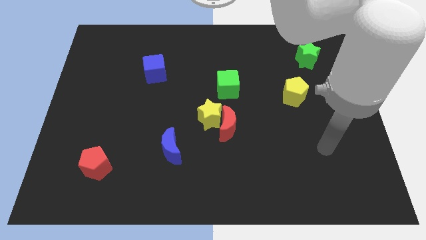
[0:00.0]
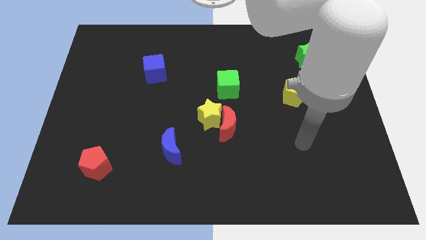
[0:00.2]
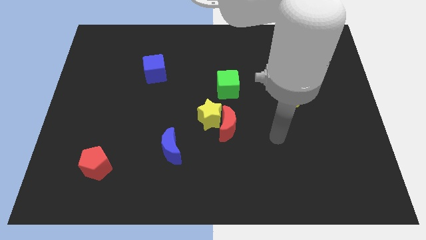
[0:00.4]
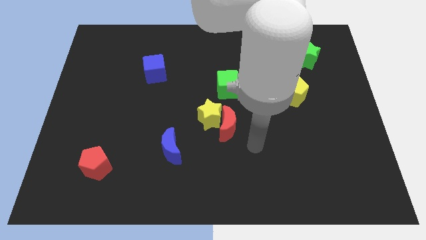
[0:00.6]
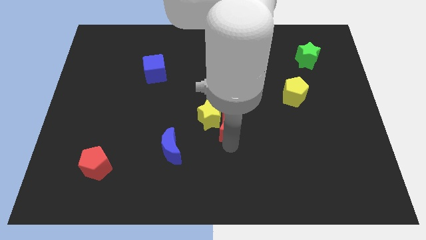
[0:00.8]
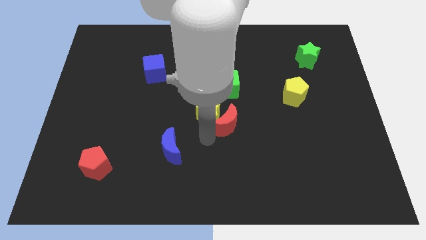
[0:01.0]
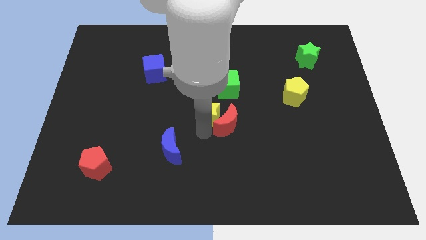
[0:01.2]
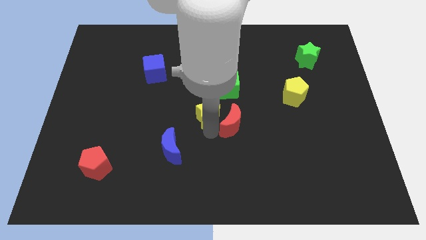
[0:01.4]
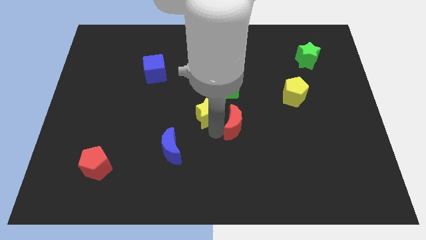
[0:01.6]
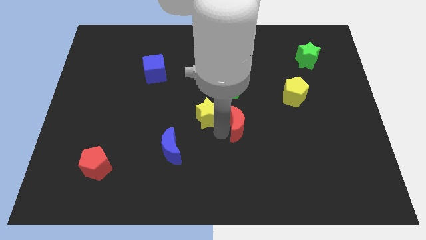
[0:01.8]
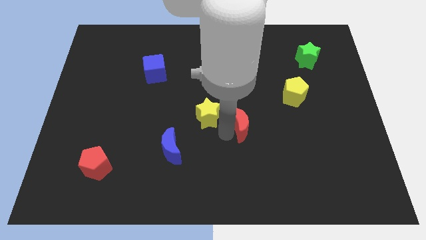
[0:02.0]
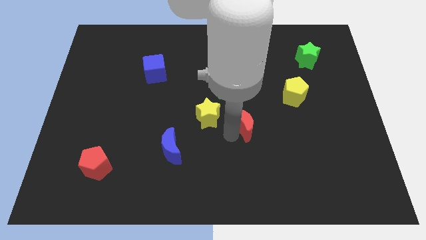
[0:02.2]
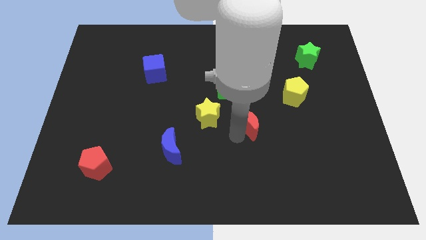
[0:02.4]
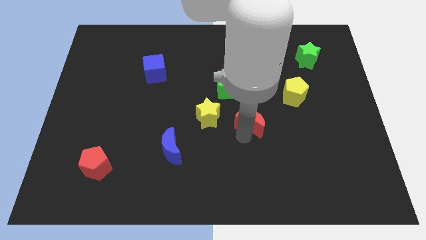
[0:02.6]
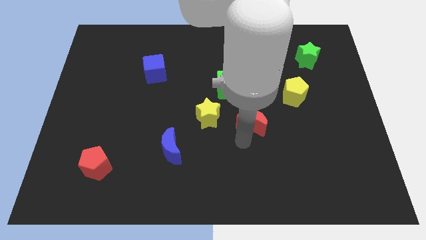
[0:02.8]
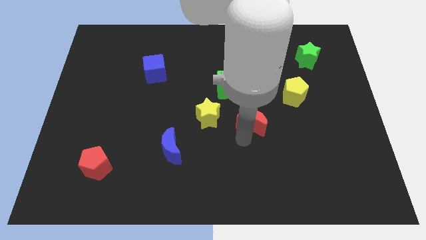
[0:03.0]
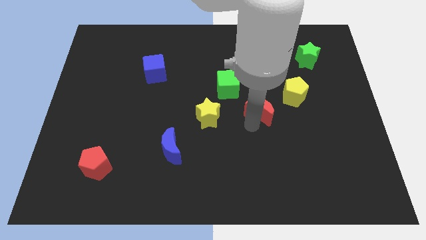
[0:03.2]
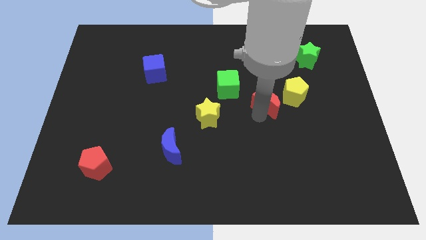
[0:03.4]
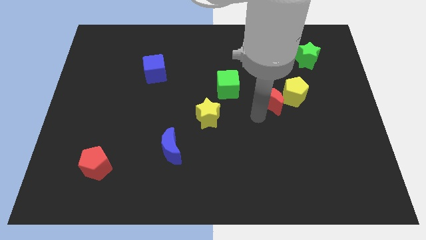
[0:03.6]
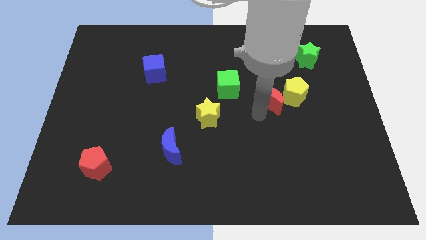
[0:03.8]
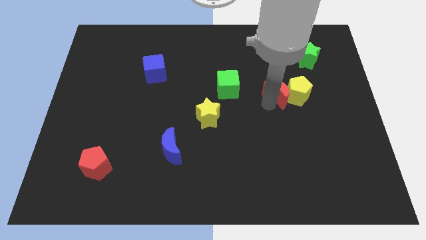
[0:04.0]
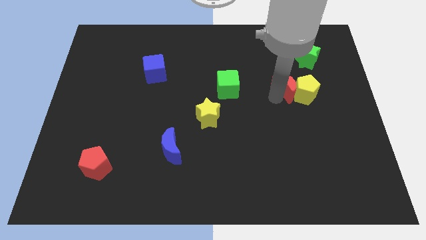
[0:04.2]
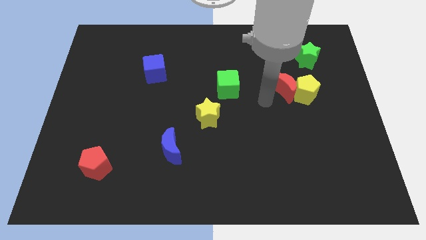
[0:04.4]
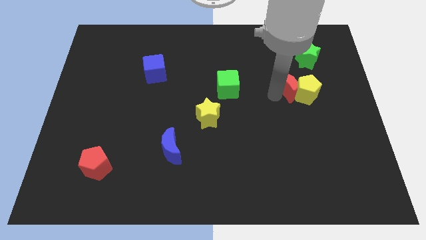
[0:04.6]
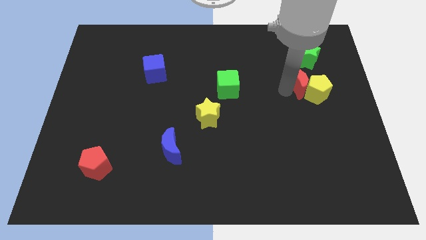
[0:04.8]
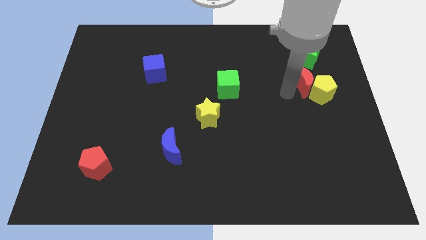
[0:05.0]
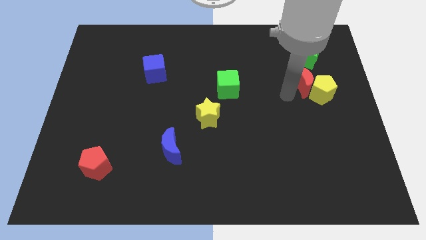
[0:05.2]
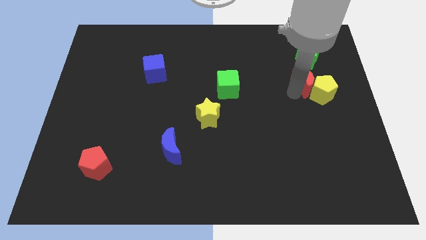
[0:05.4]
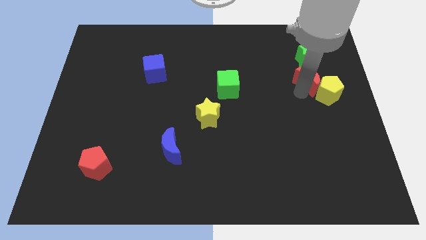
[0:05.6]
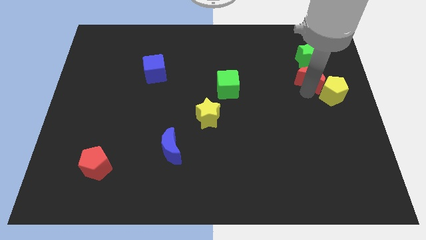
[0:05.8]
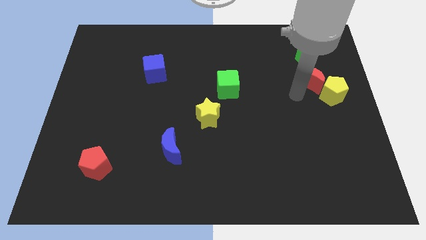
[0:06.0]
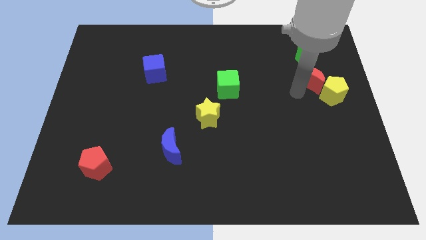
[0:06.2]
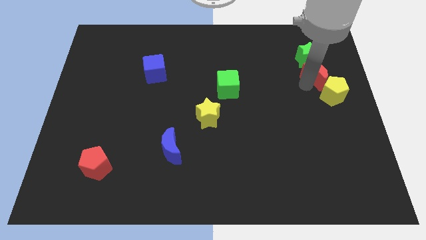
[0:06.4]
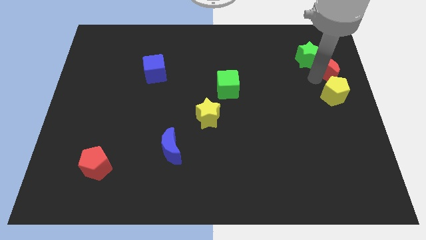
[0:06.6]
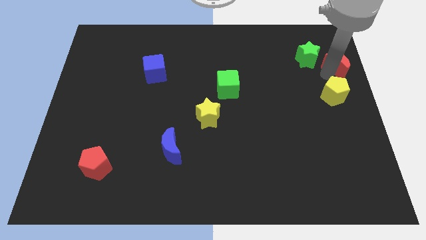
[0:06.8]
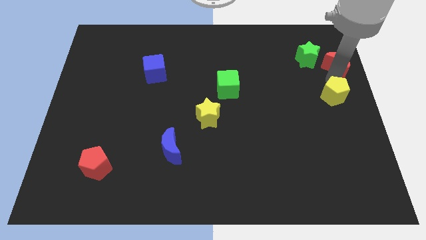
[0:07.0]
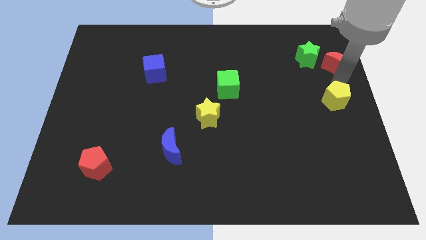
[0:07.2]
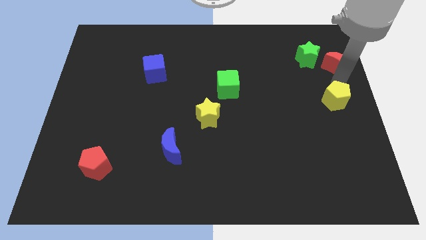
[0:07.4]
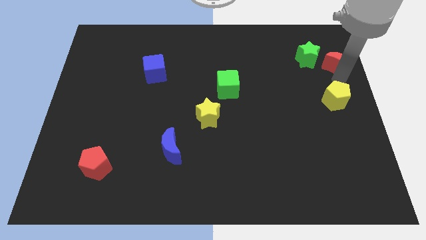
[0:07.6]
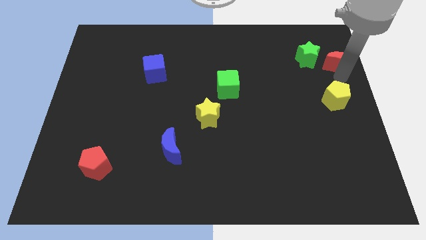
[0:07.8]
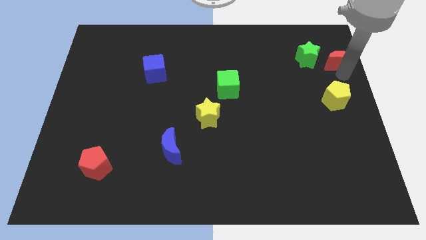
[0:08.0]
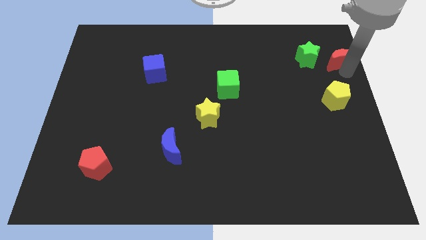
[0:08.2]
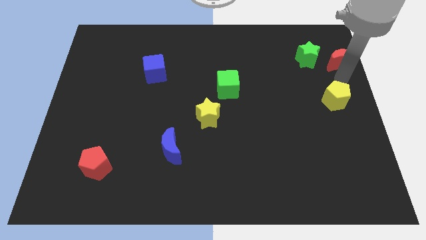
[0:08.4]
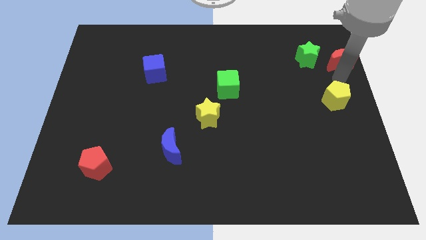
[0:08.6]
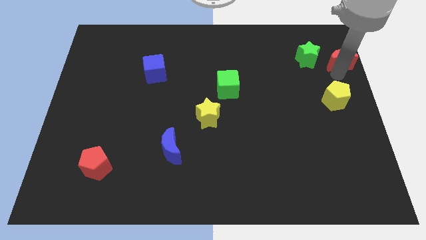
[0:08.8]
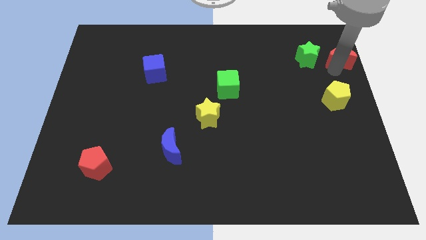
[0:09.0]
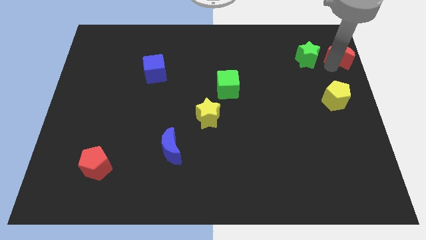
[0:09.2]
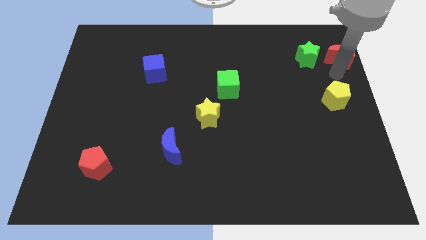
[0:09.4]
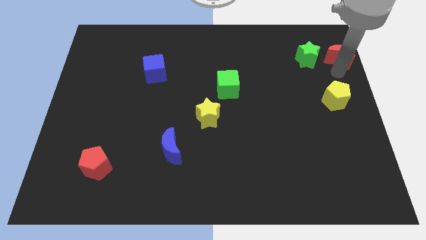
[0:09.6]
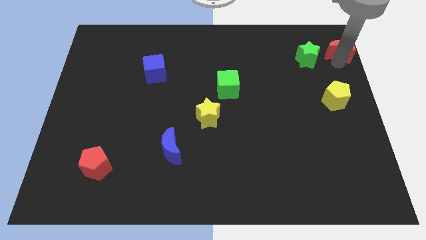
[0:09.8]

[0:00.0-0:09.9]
slide the red moon to the top right corner

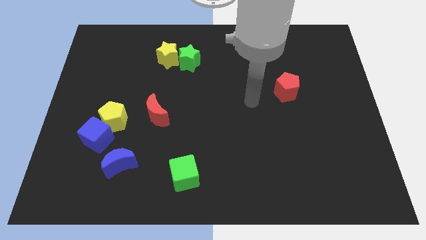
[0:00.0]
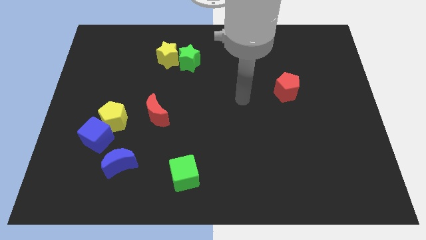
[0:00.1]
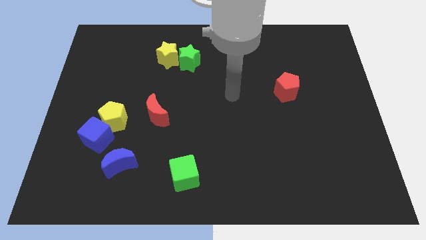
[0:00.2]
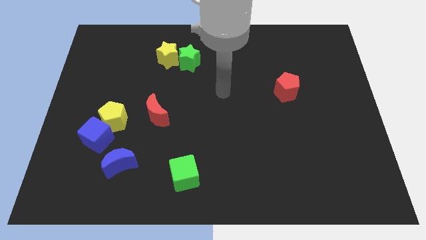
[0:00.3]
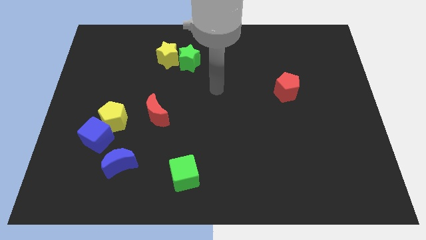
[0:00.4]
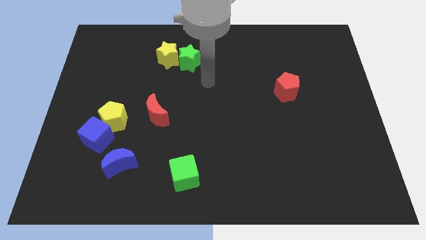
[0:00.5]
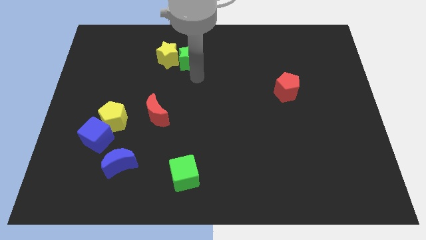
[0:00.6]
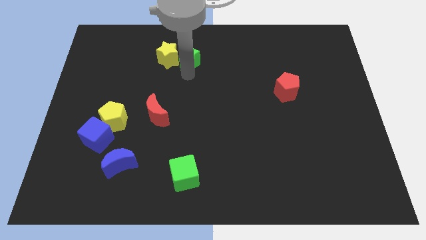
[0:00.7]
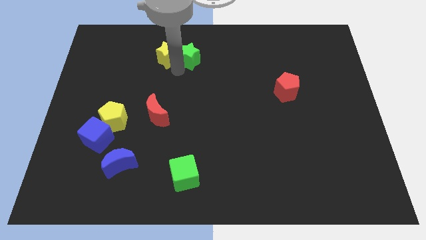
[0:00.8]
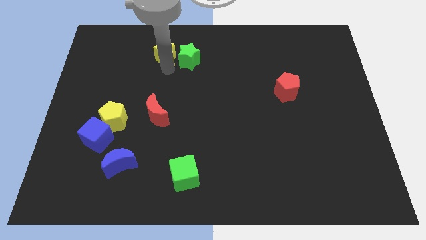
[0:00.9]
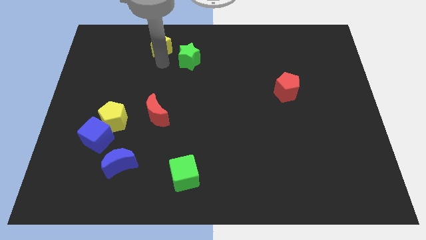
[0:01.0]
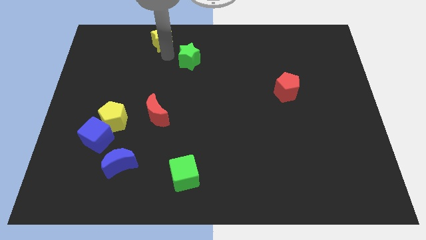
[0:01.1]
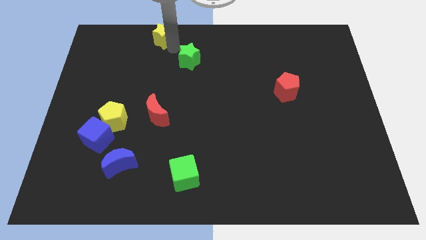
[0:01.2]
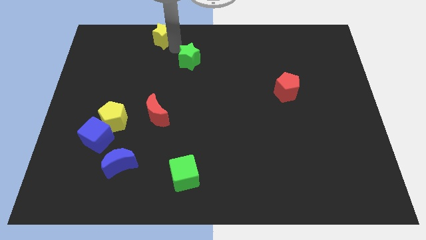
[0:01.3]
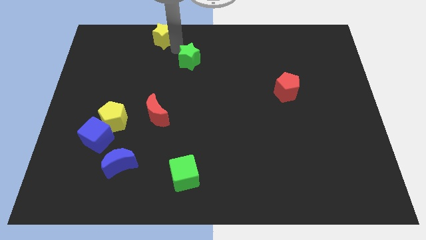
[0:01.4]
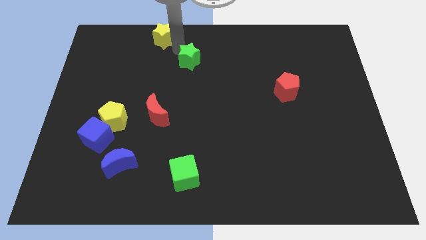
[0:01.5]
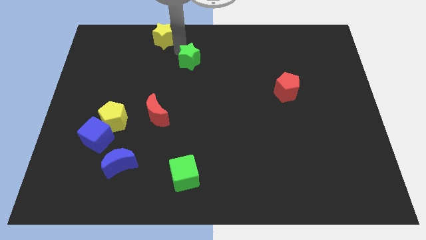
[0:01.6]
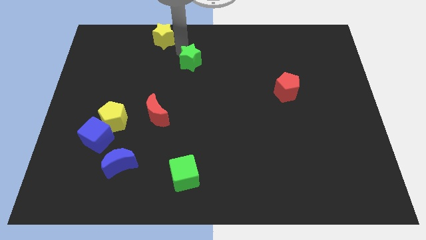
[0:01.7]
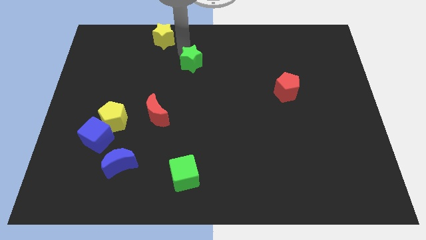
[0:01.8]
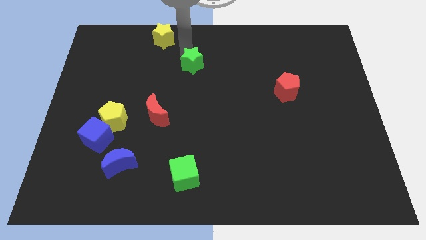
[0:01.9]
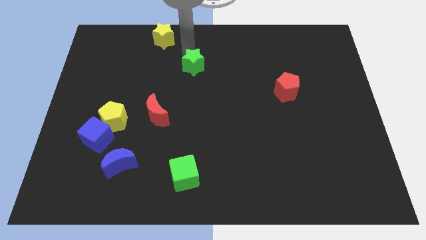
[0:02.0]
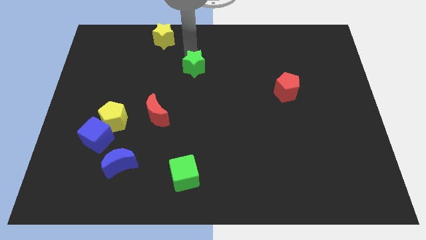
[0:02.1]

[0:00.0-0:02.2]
put the green star to the middle
